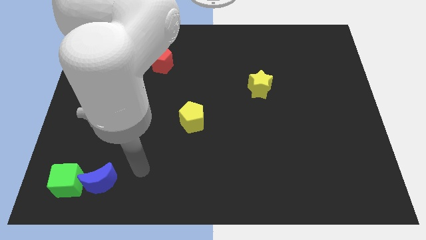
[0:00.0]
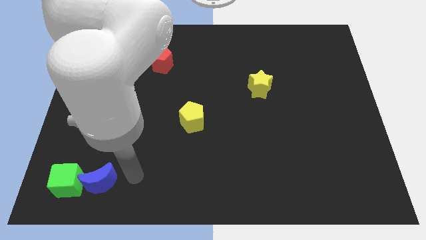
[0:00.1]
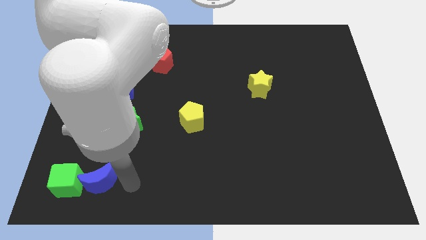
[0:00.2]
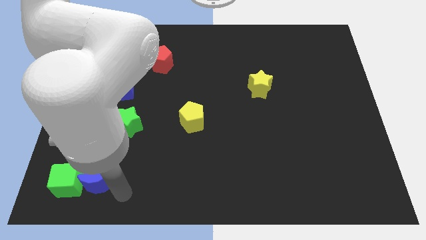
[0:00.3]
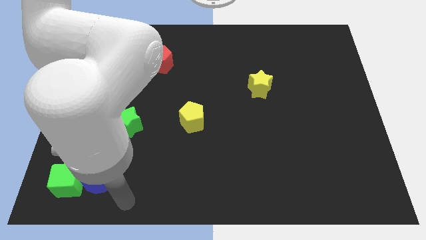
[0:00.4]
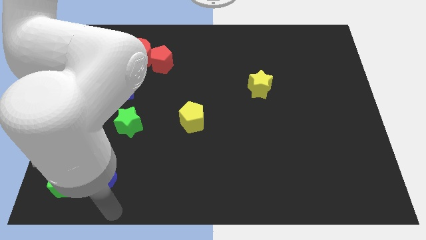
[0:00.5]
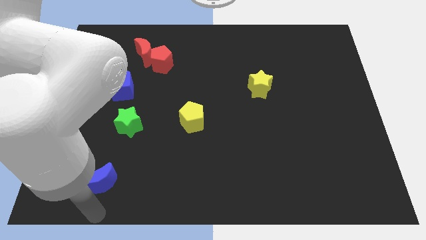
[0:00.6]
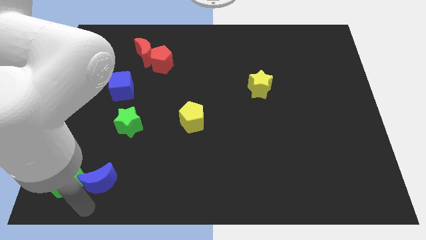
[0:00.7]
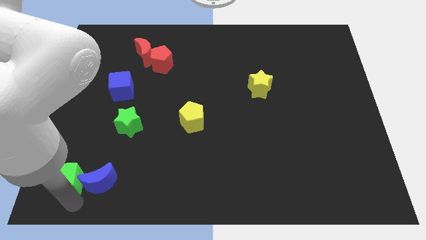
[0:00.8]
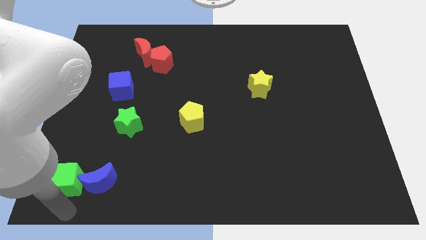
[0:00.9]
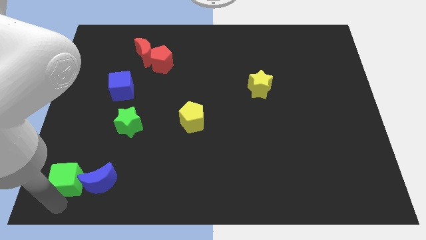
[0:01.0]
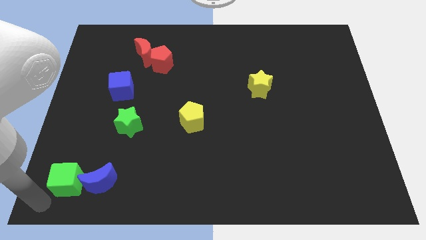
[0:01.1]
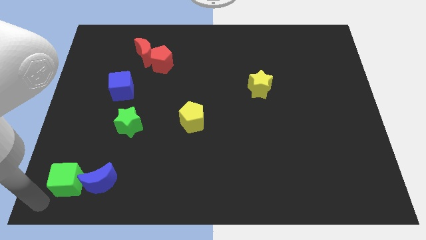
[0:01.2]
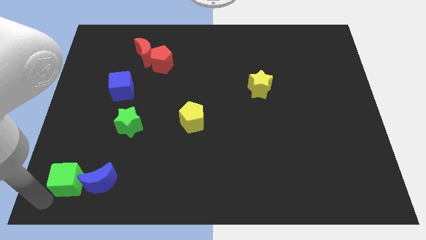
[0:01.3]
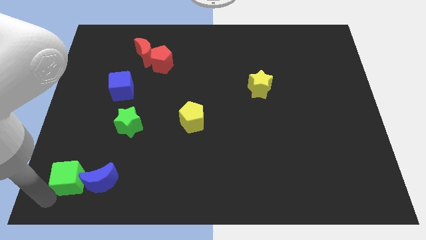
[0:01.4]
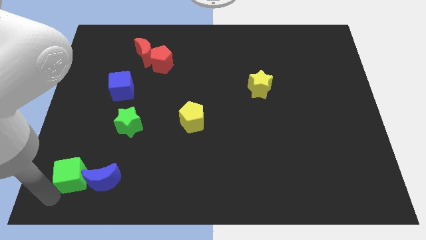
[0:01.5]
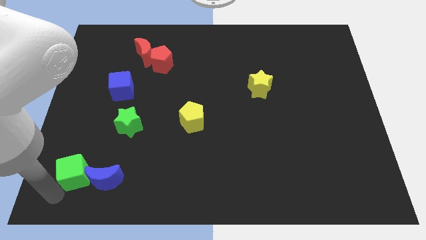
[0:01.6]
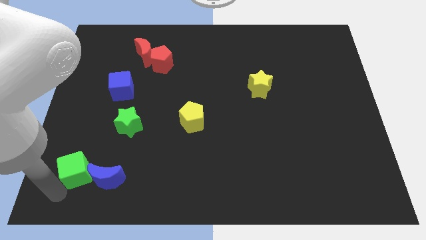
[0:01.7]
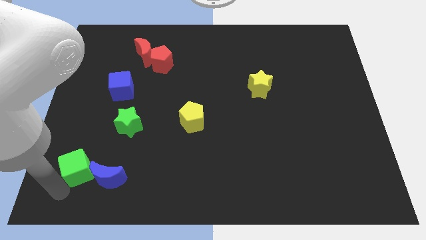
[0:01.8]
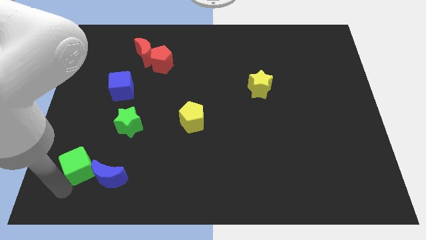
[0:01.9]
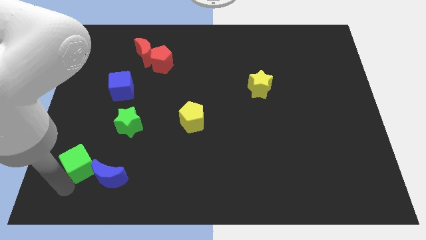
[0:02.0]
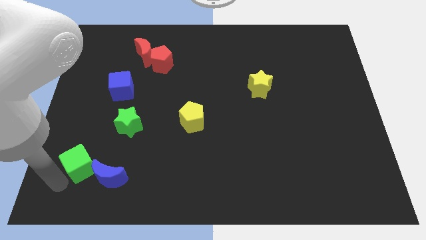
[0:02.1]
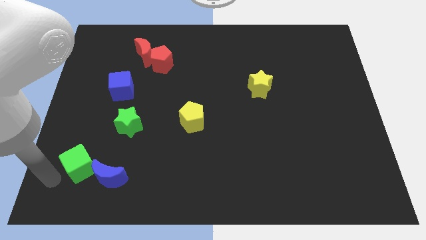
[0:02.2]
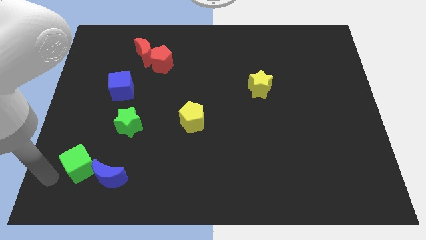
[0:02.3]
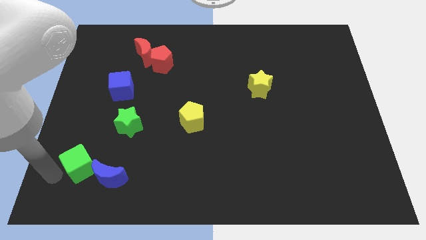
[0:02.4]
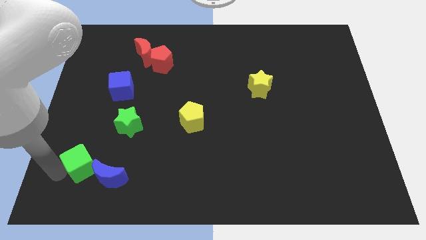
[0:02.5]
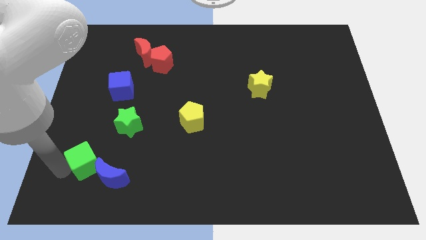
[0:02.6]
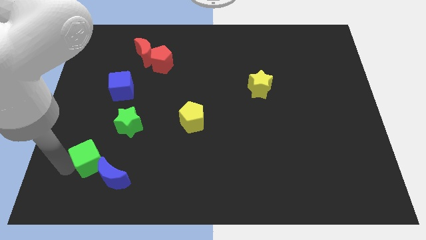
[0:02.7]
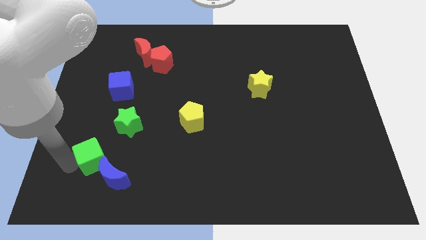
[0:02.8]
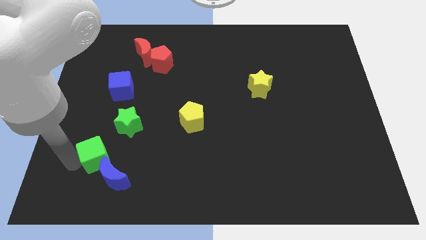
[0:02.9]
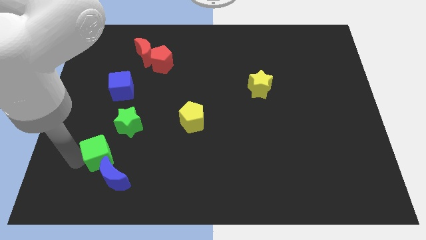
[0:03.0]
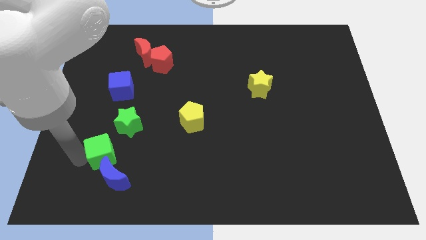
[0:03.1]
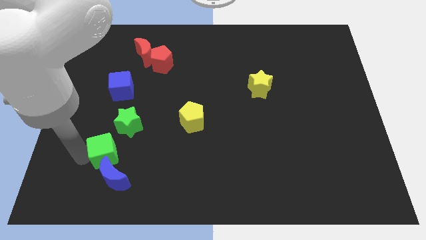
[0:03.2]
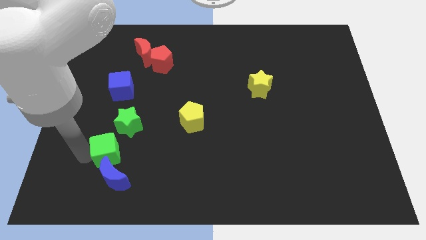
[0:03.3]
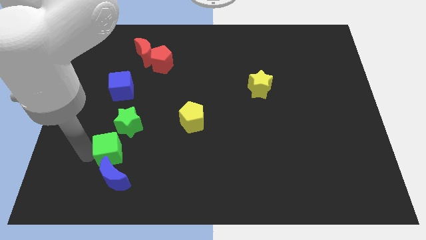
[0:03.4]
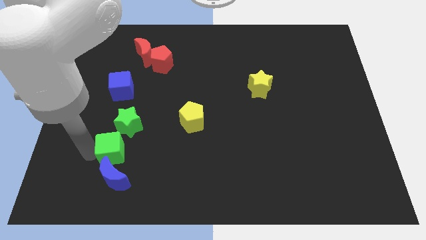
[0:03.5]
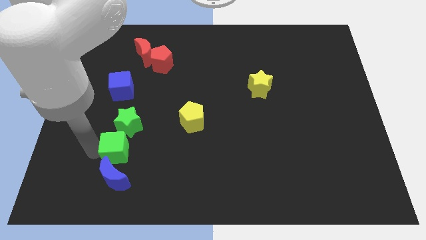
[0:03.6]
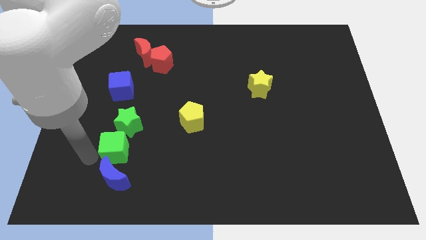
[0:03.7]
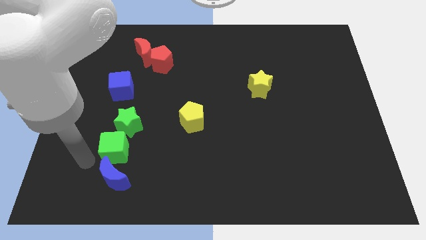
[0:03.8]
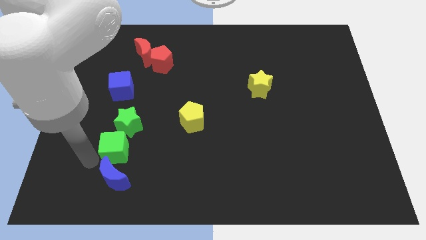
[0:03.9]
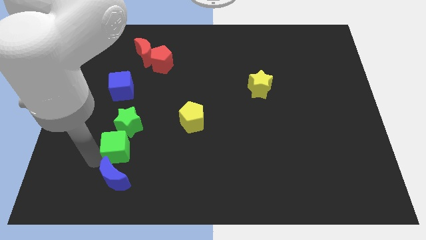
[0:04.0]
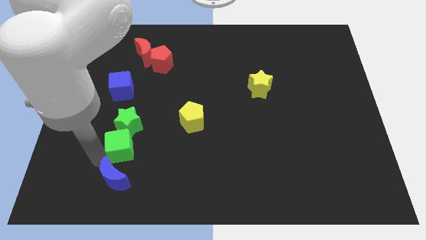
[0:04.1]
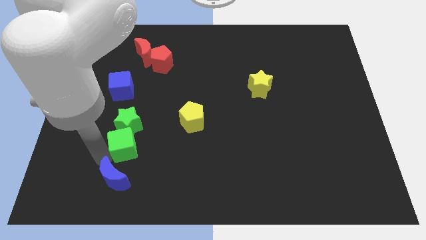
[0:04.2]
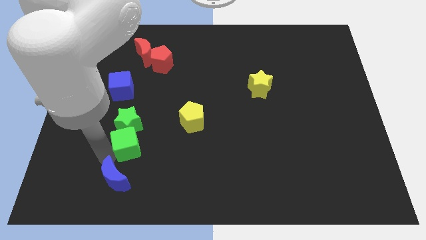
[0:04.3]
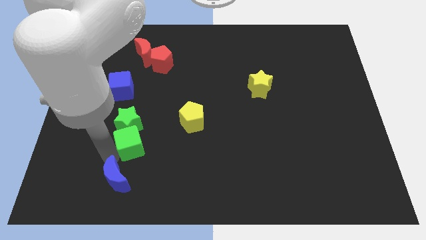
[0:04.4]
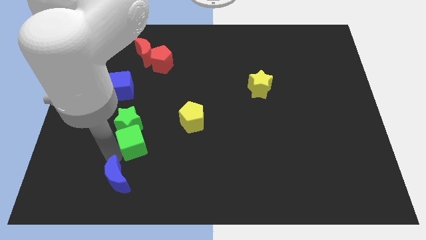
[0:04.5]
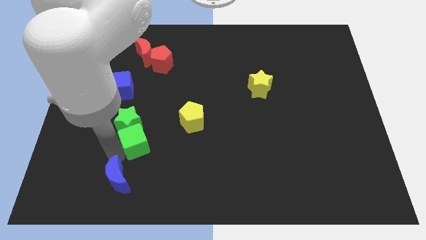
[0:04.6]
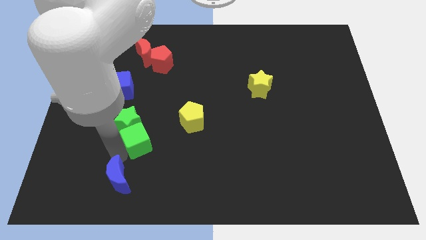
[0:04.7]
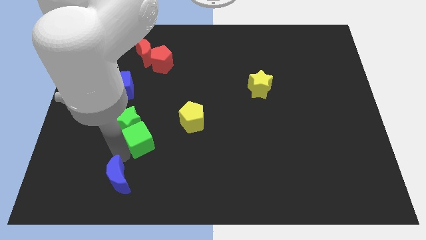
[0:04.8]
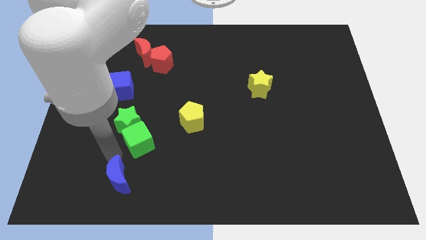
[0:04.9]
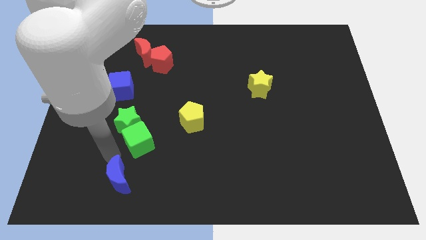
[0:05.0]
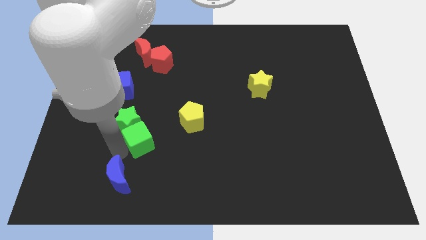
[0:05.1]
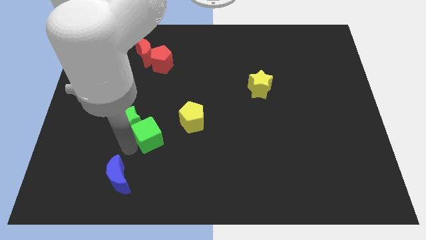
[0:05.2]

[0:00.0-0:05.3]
push the green cube just right of the green star
